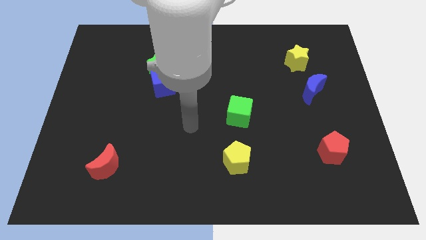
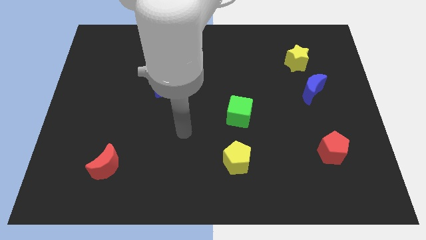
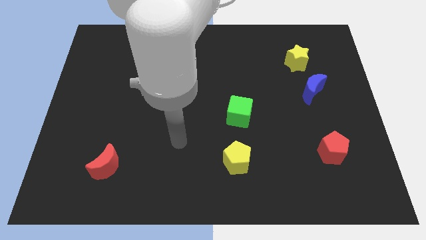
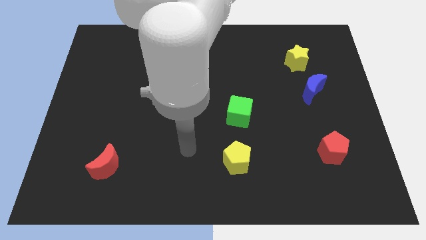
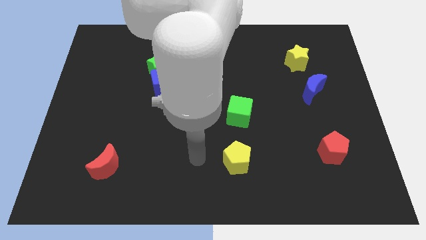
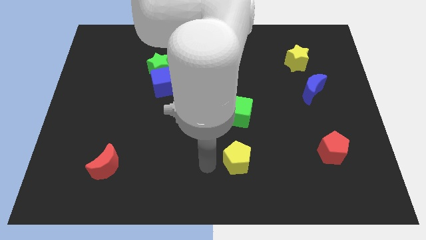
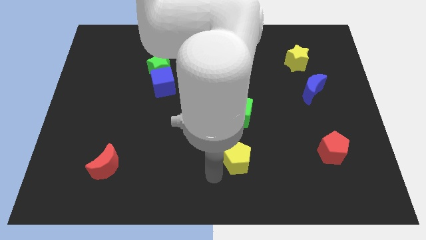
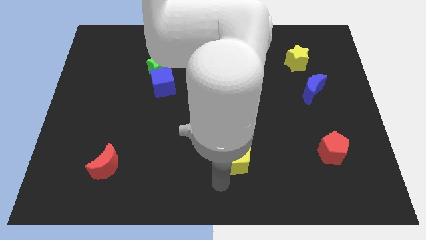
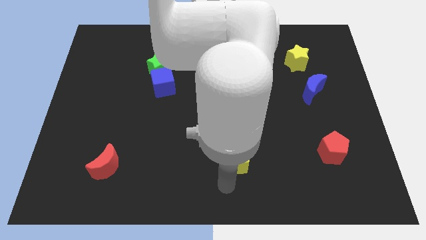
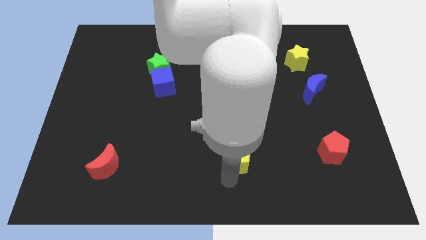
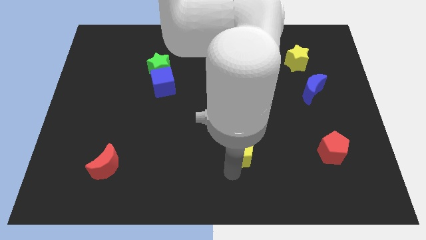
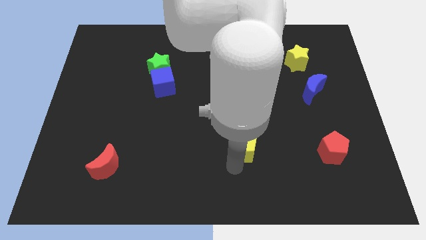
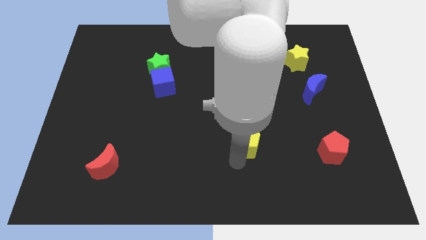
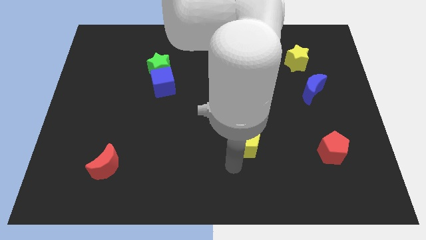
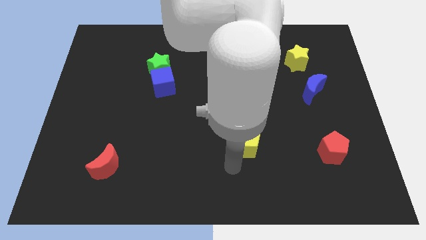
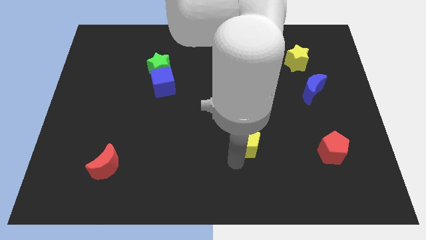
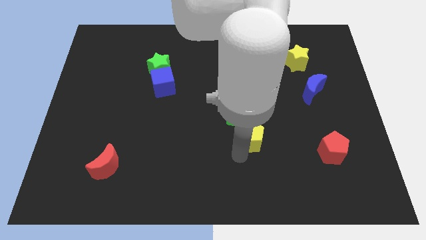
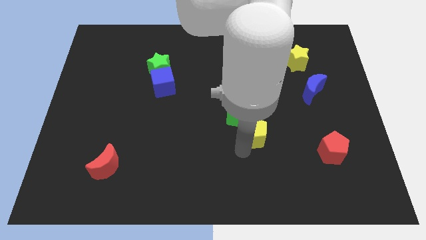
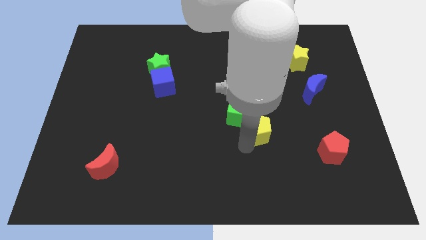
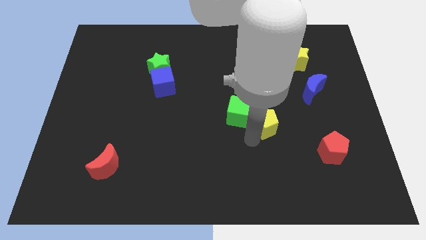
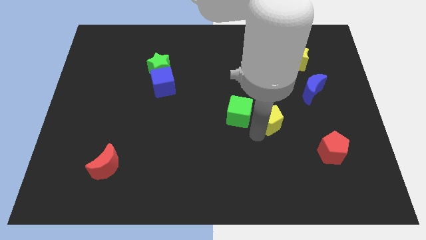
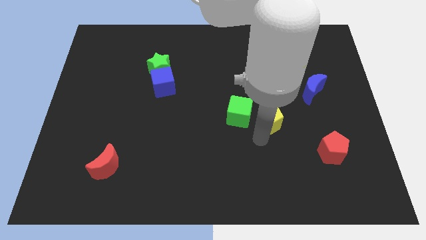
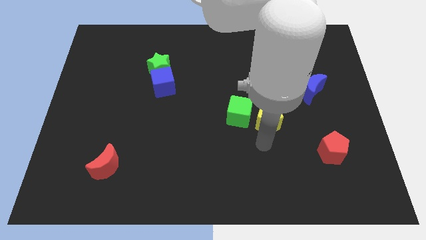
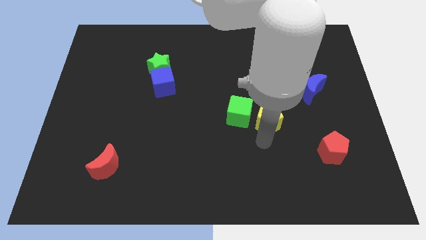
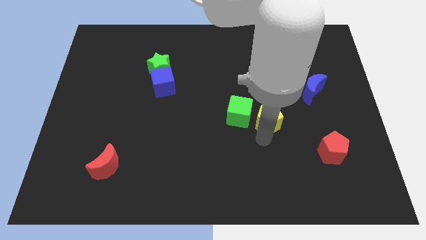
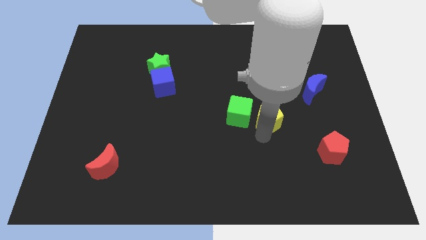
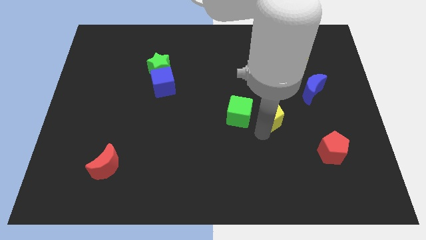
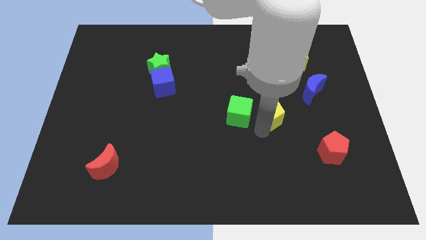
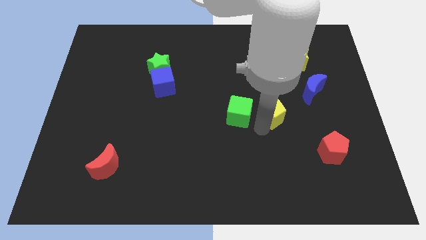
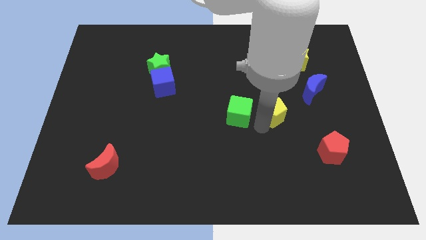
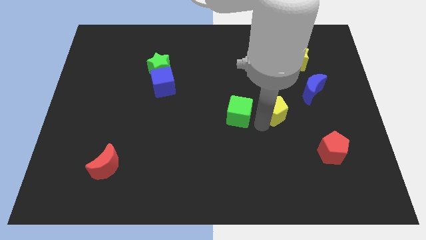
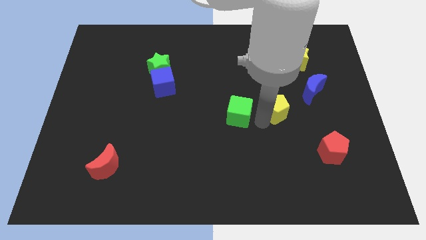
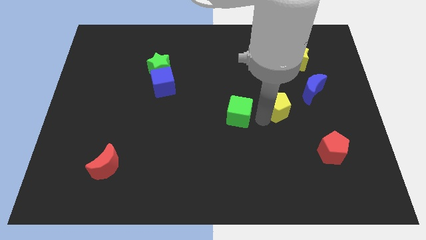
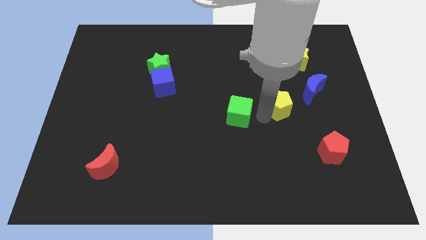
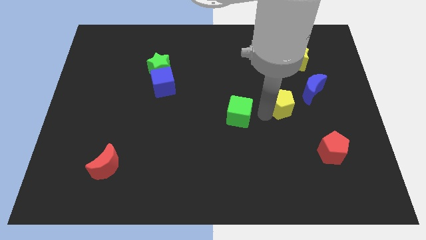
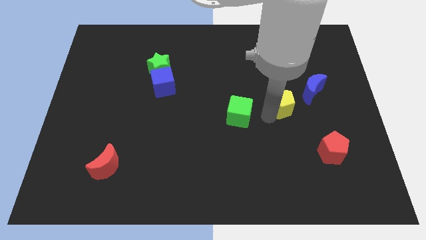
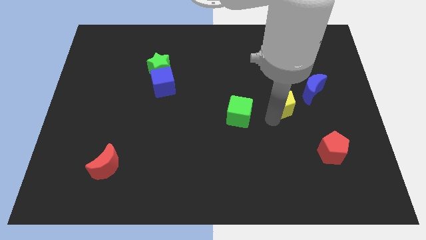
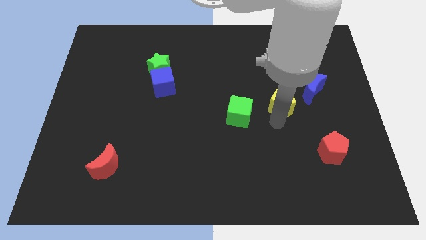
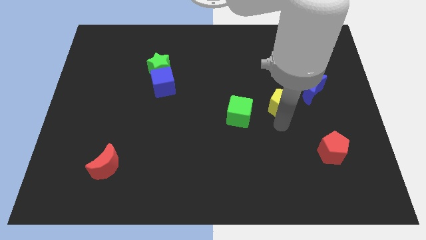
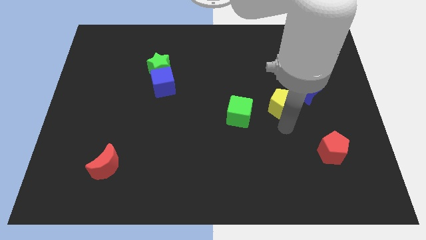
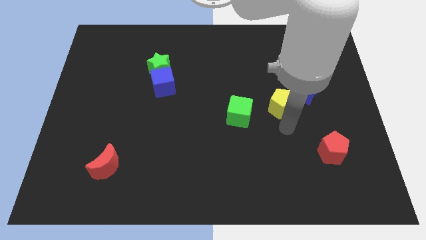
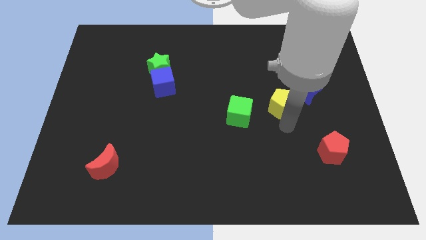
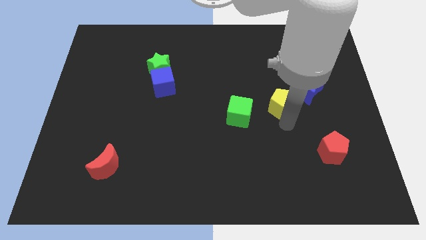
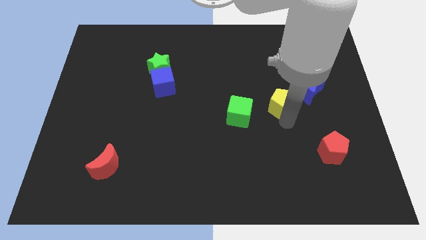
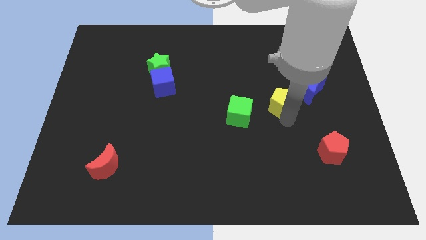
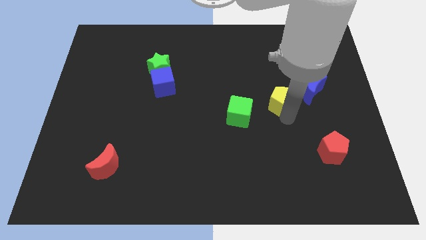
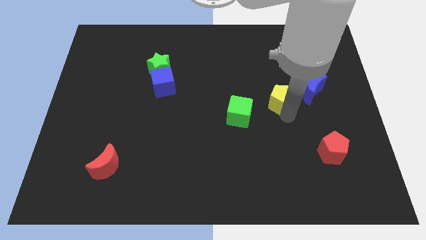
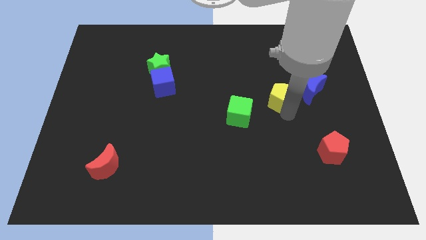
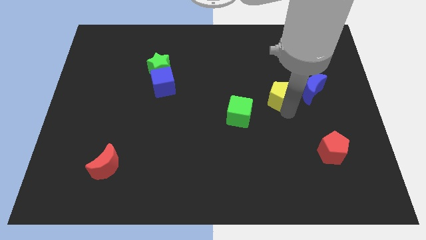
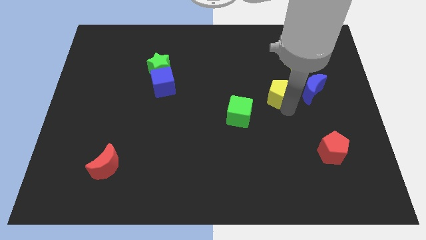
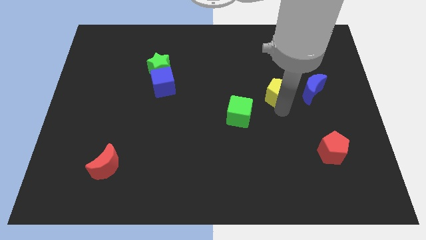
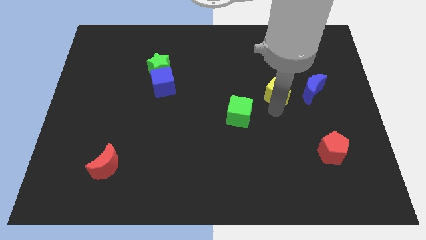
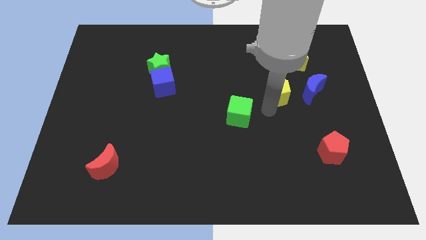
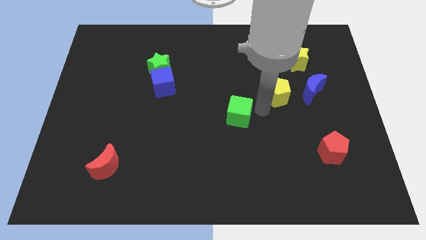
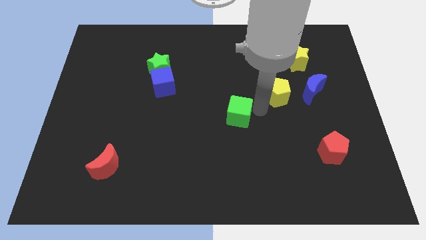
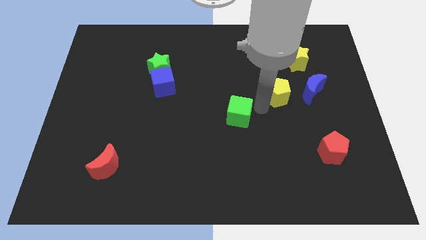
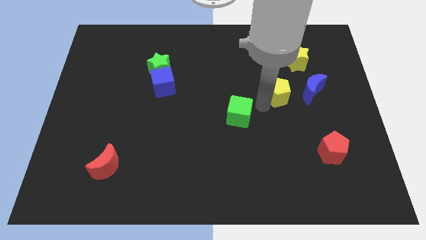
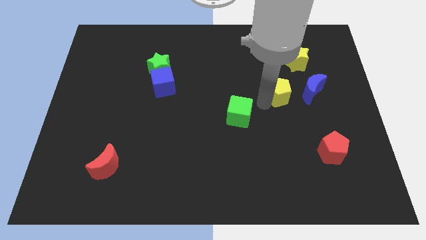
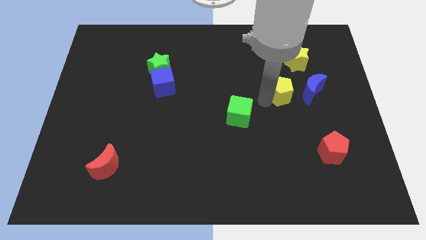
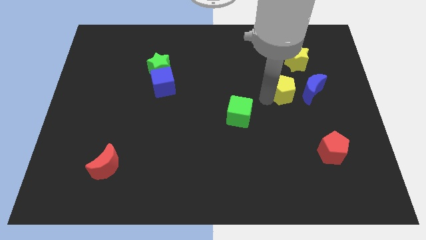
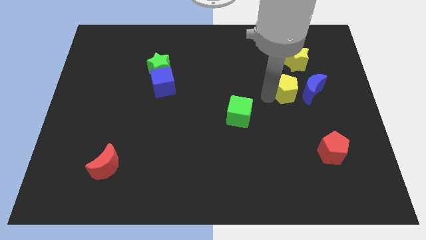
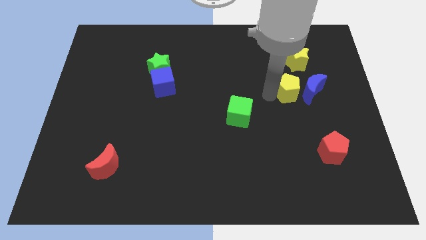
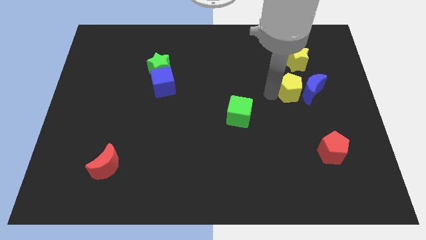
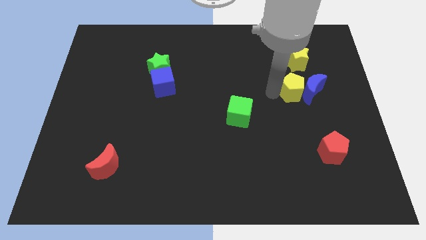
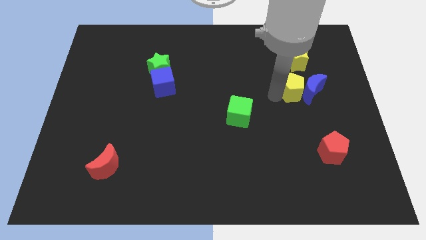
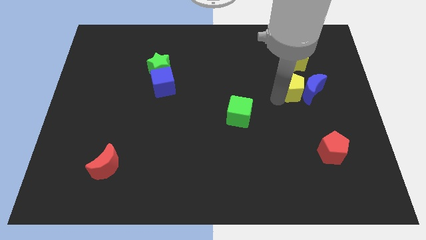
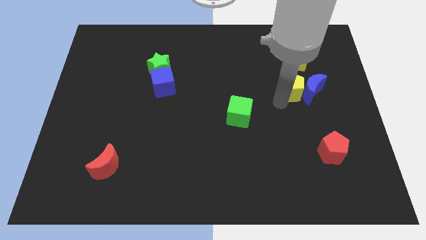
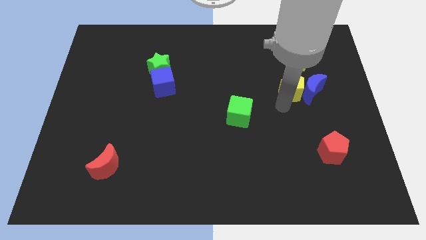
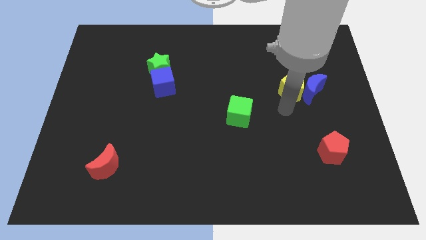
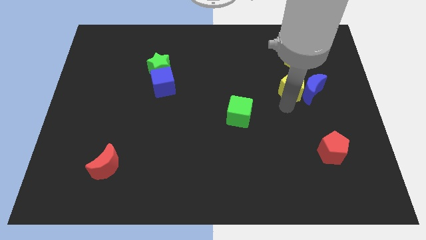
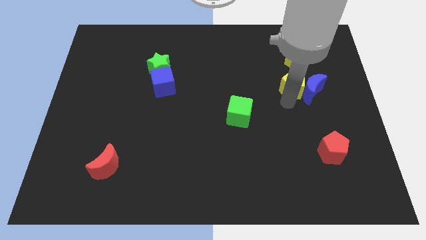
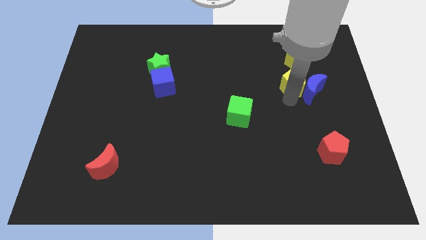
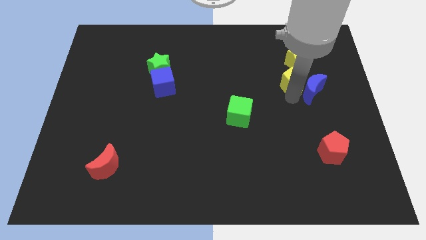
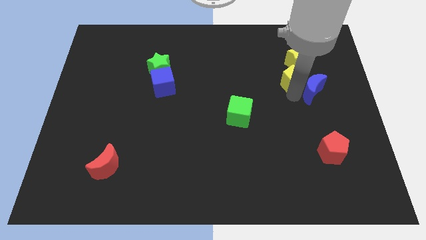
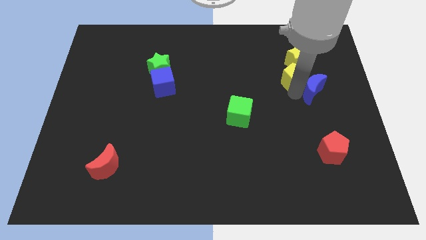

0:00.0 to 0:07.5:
push the yellow pentagon to the yellow star

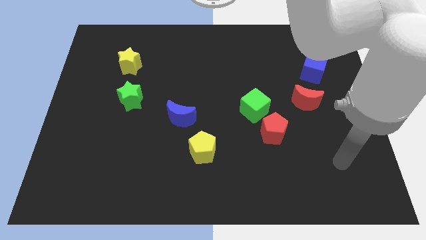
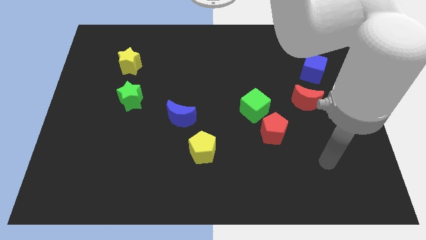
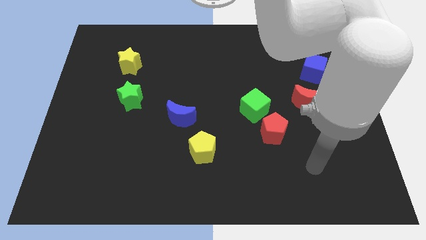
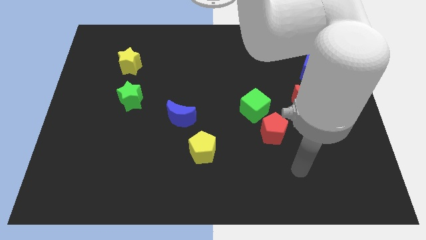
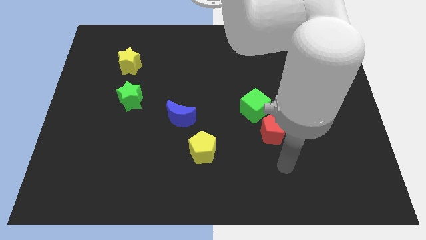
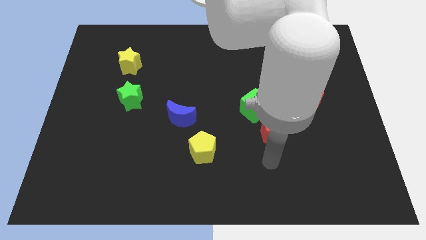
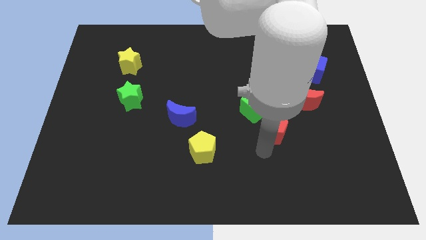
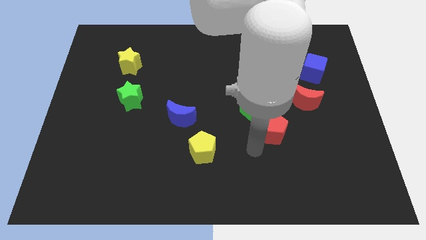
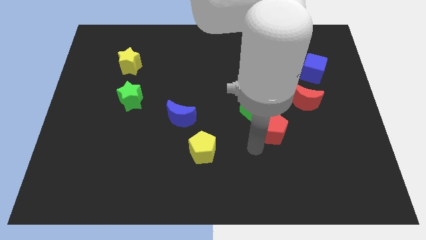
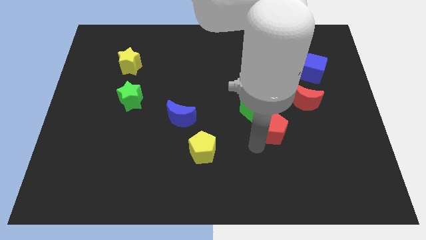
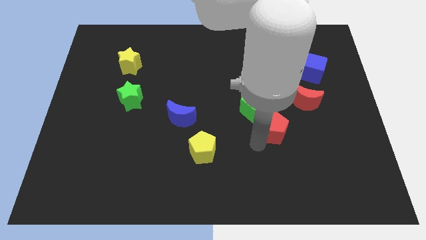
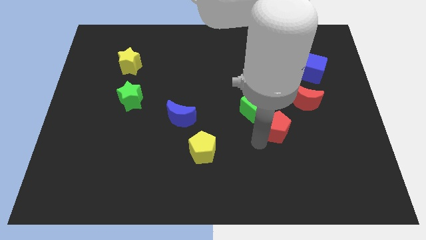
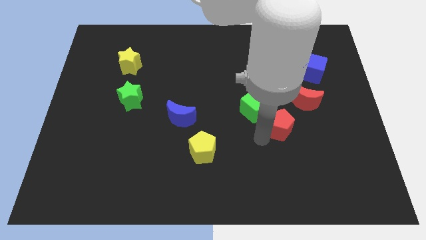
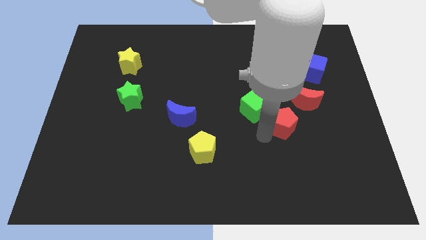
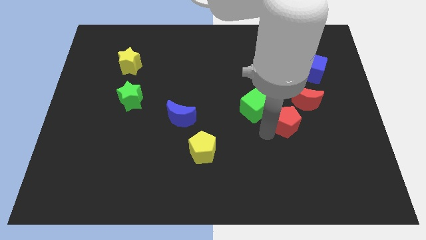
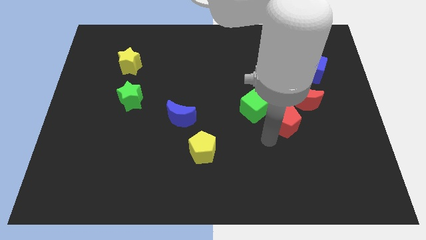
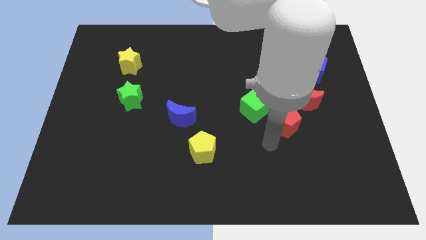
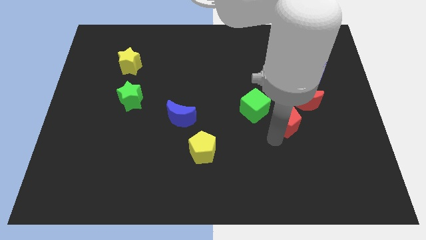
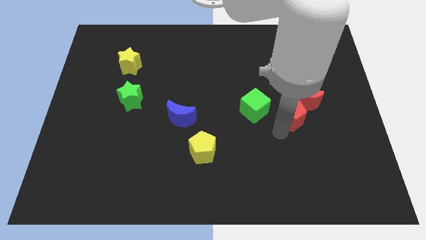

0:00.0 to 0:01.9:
put the red pentagon close to the red moon
